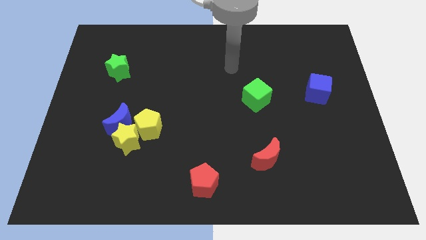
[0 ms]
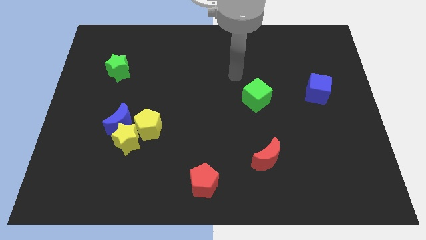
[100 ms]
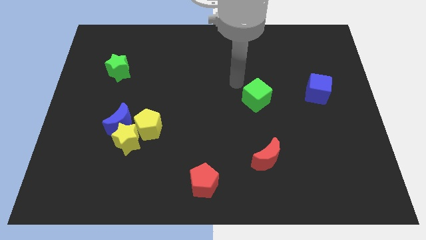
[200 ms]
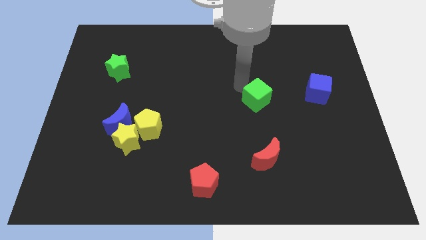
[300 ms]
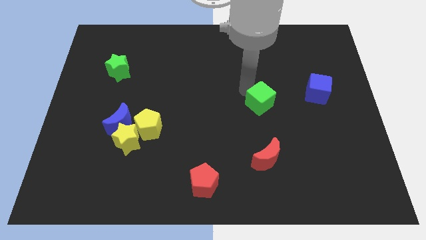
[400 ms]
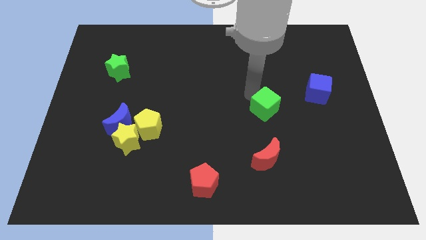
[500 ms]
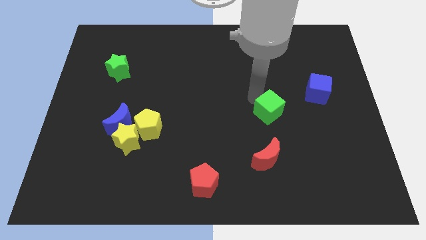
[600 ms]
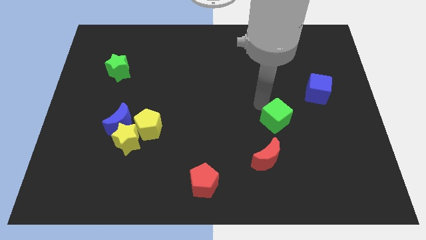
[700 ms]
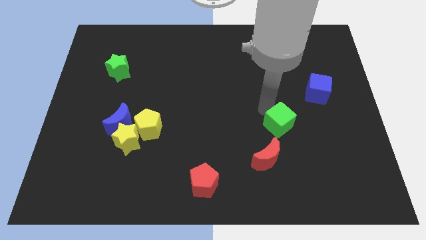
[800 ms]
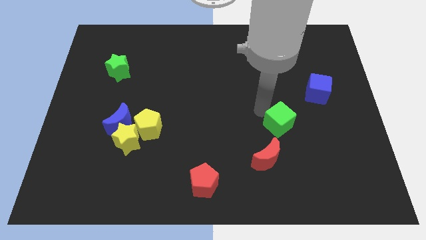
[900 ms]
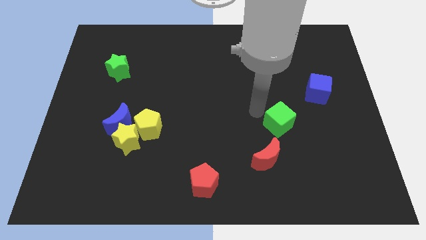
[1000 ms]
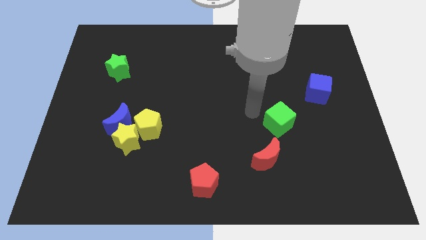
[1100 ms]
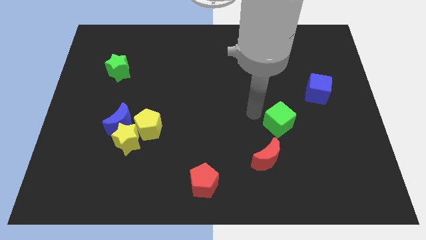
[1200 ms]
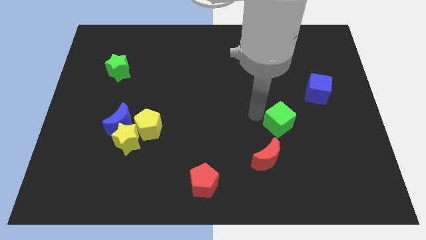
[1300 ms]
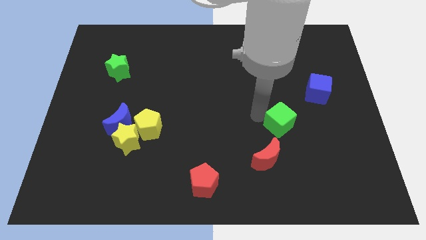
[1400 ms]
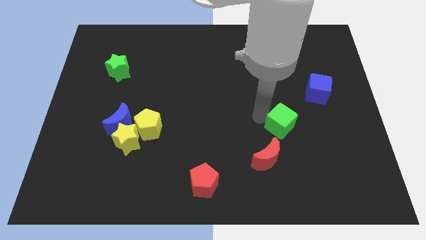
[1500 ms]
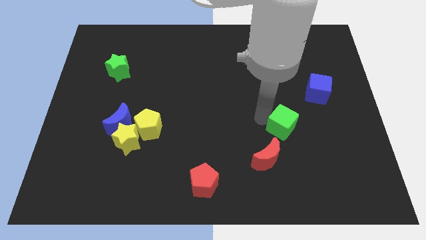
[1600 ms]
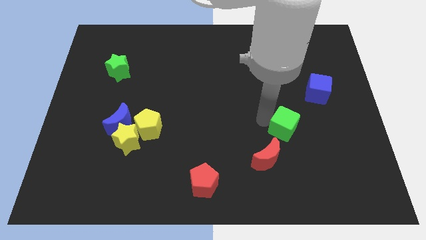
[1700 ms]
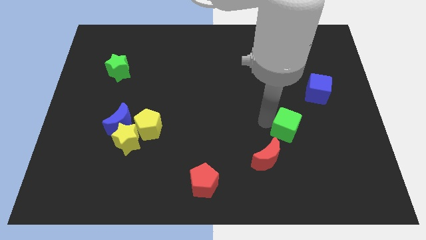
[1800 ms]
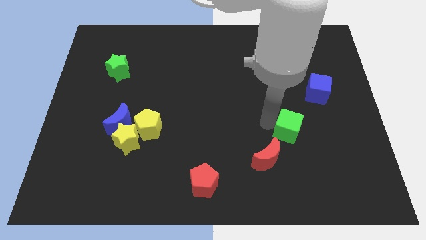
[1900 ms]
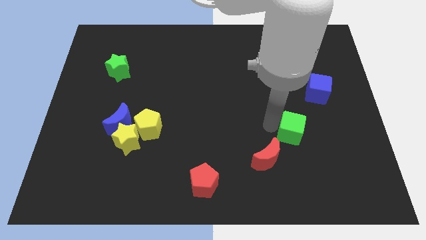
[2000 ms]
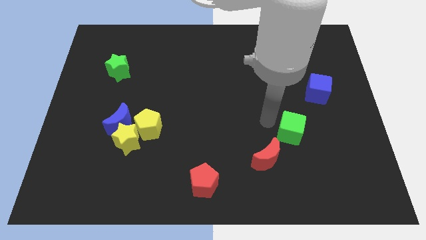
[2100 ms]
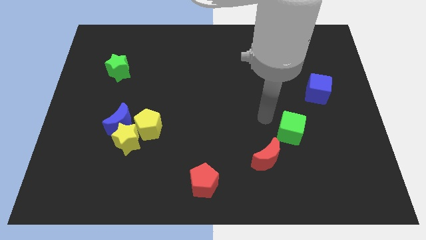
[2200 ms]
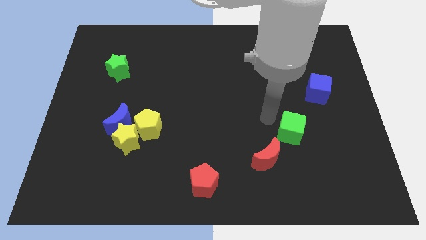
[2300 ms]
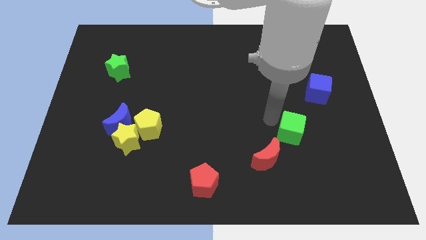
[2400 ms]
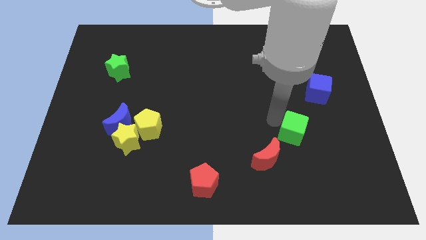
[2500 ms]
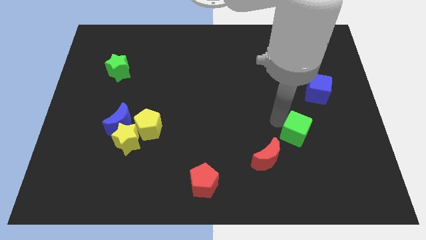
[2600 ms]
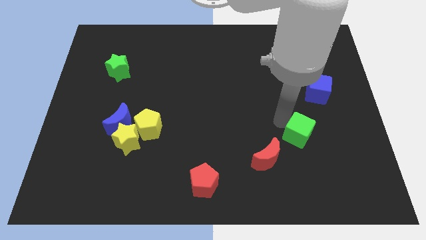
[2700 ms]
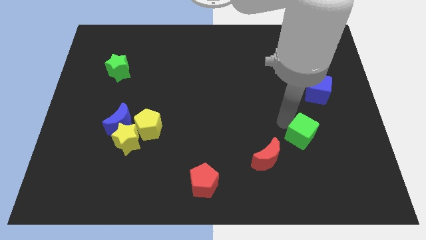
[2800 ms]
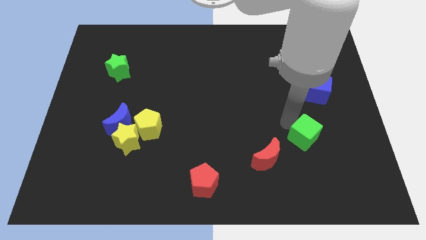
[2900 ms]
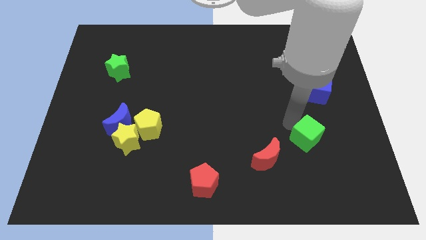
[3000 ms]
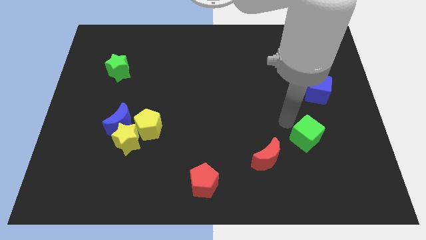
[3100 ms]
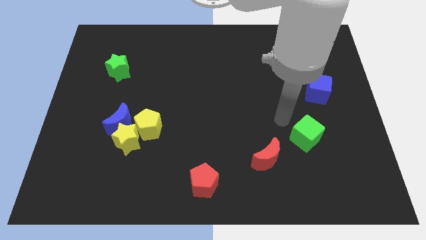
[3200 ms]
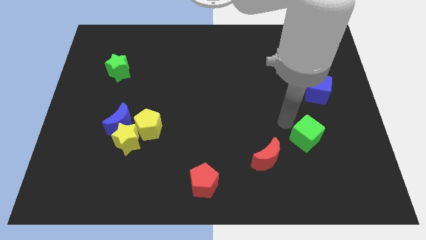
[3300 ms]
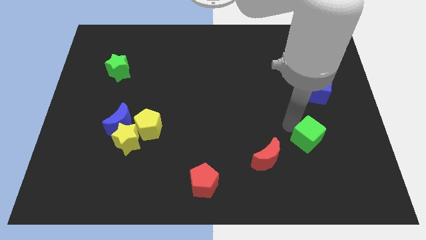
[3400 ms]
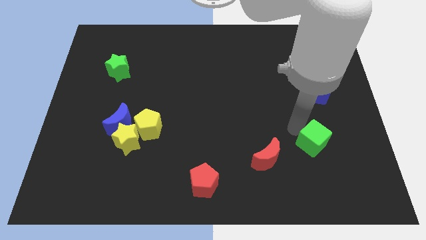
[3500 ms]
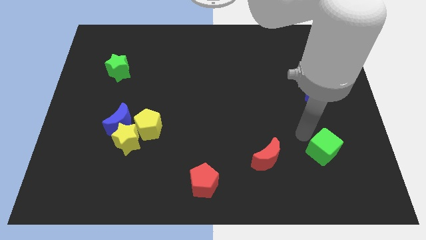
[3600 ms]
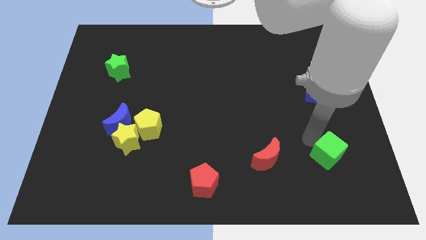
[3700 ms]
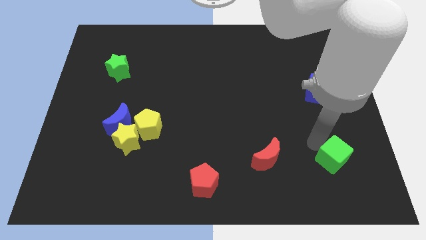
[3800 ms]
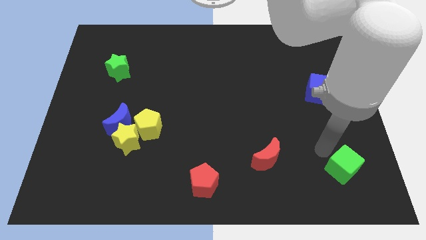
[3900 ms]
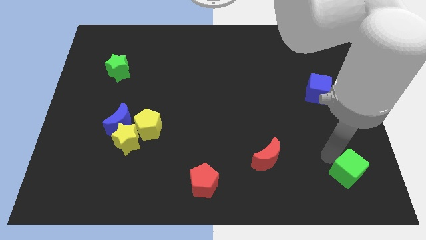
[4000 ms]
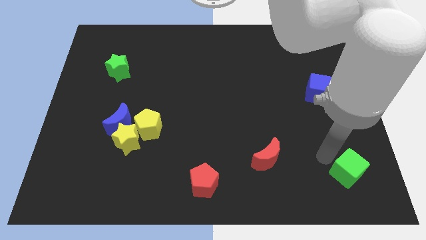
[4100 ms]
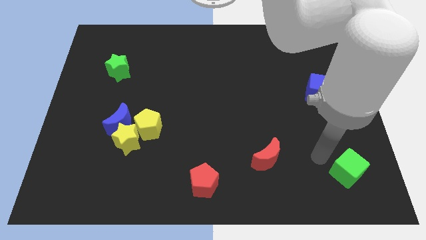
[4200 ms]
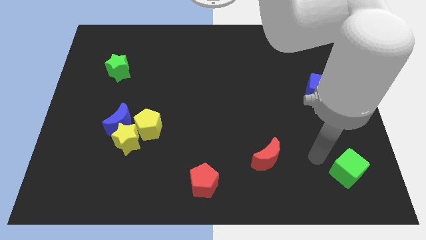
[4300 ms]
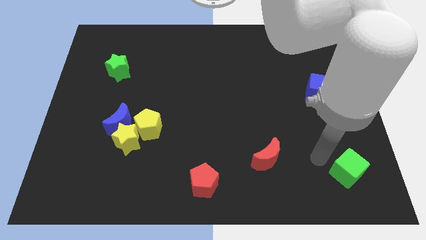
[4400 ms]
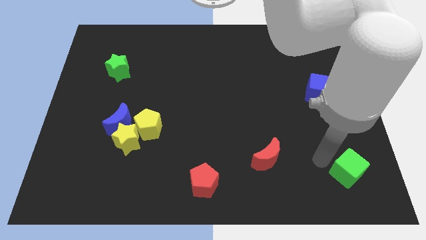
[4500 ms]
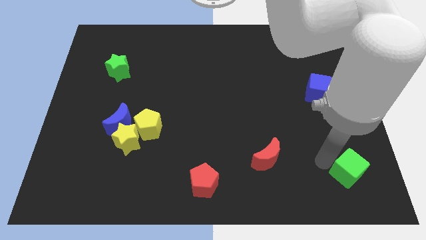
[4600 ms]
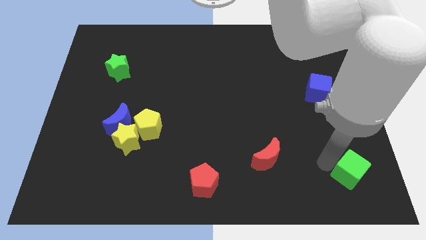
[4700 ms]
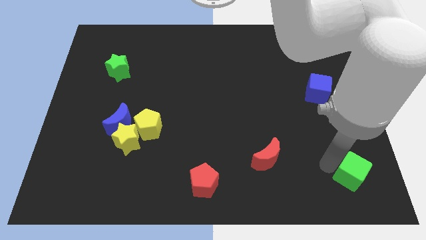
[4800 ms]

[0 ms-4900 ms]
move the green cube to the bottom right
